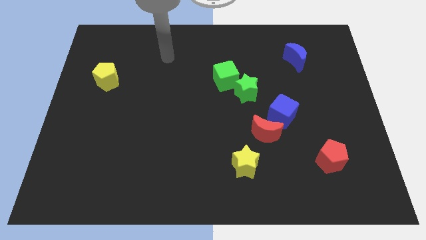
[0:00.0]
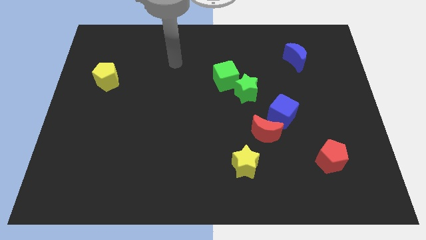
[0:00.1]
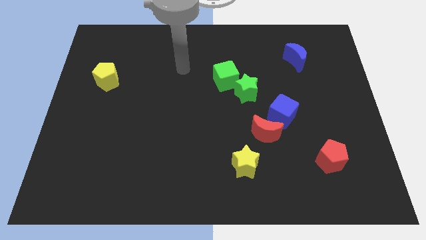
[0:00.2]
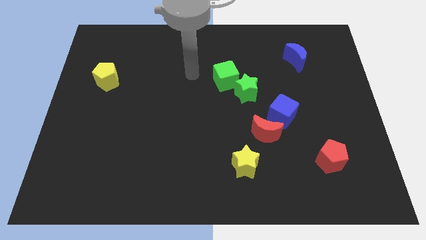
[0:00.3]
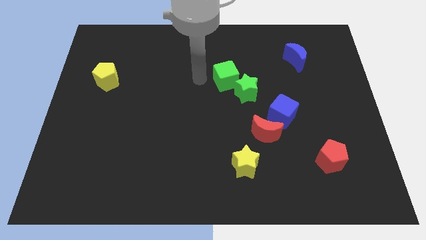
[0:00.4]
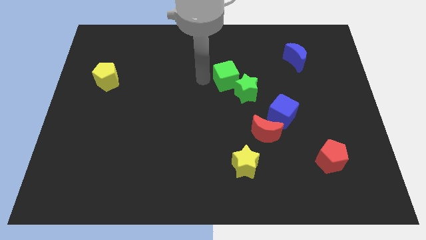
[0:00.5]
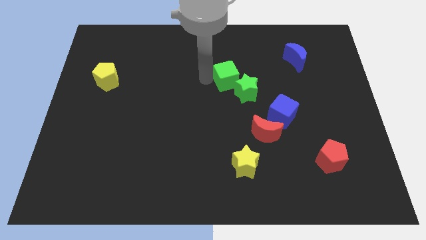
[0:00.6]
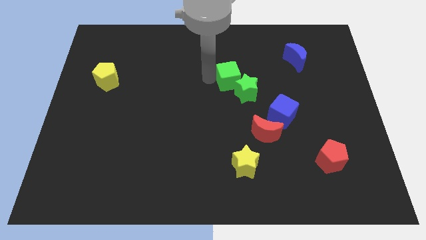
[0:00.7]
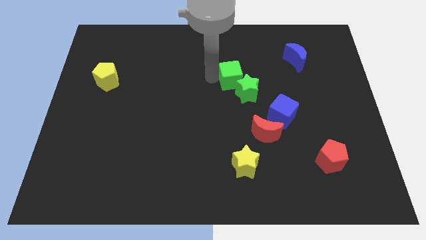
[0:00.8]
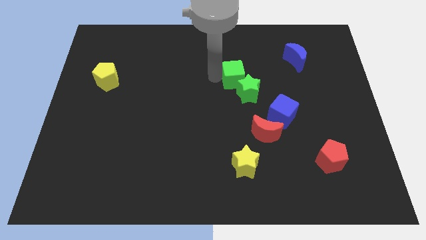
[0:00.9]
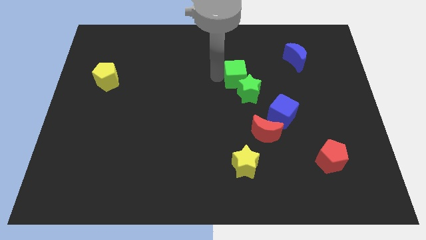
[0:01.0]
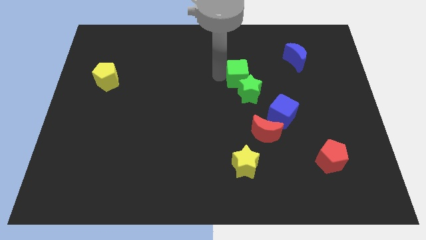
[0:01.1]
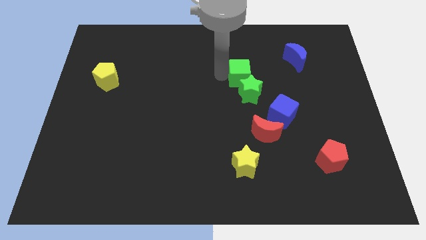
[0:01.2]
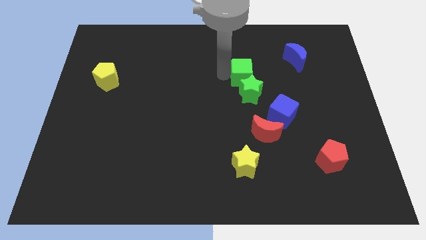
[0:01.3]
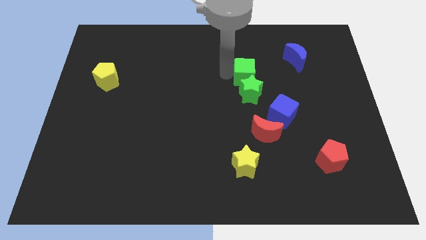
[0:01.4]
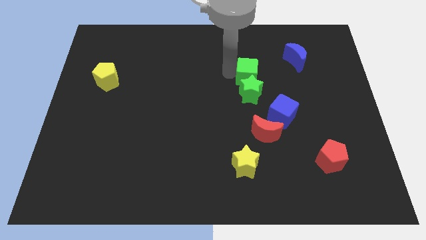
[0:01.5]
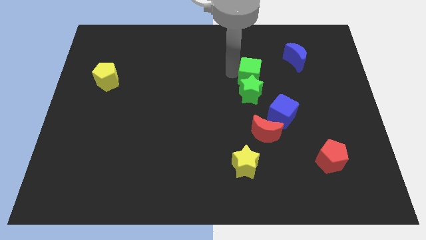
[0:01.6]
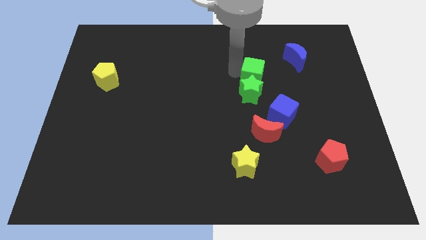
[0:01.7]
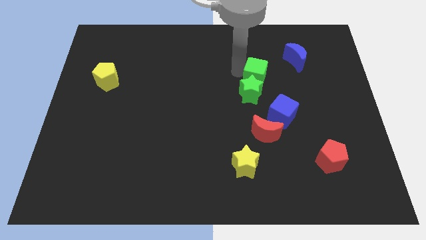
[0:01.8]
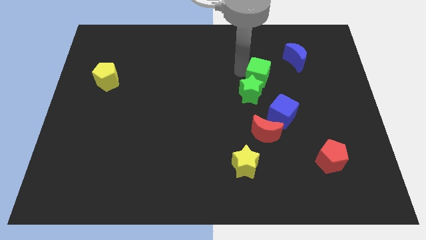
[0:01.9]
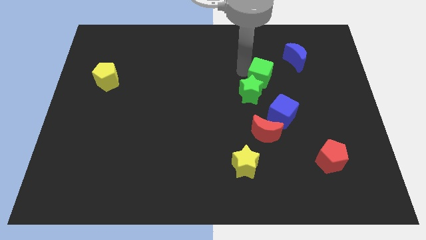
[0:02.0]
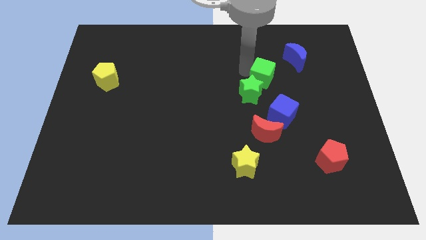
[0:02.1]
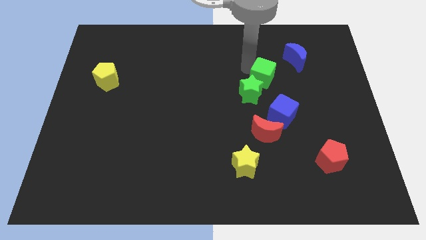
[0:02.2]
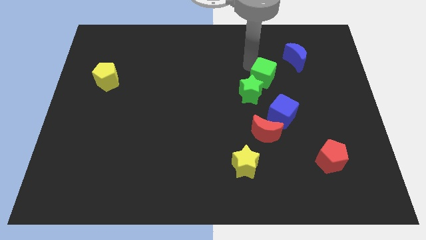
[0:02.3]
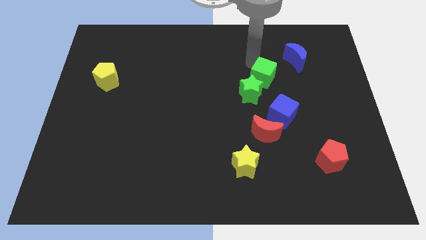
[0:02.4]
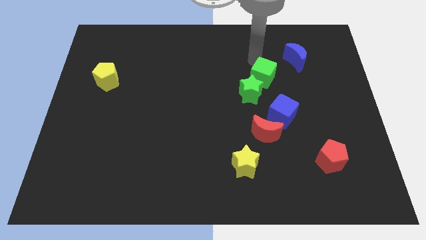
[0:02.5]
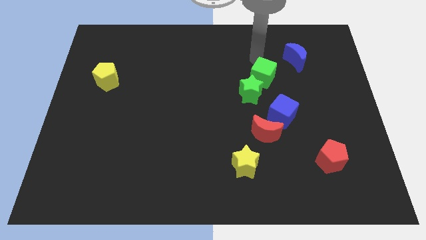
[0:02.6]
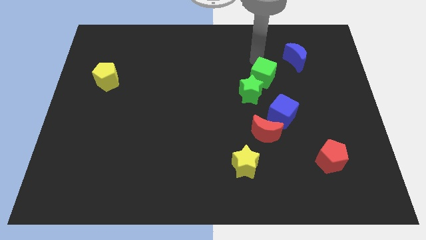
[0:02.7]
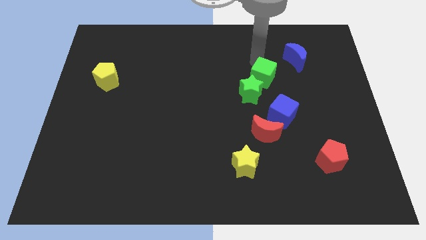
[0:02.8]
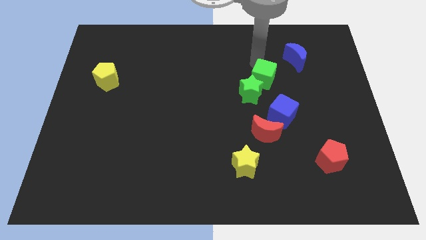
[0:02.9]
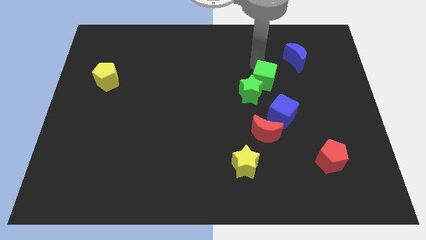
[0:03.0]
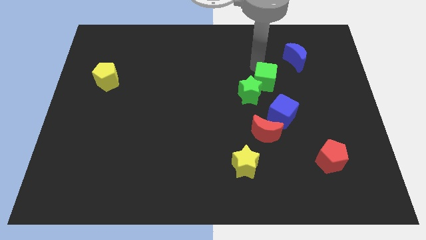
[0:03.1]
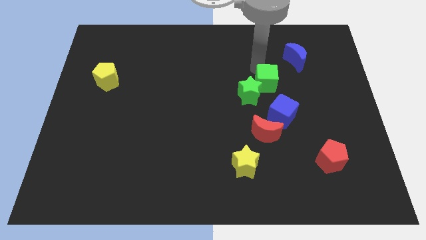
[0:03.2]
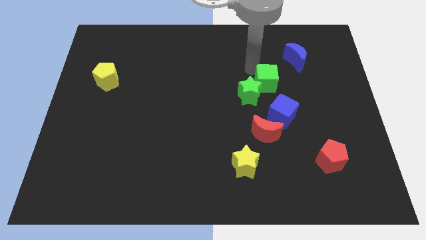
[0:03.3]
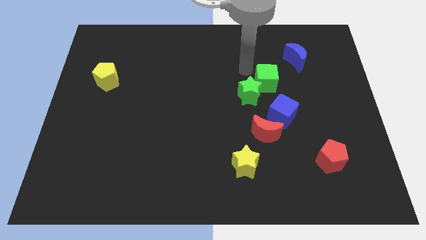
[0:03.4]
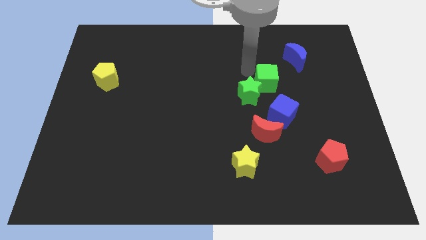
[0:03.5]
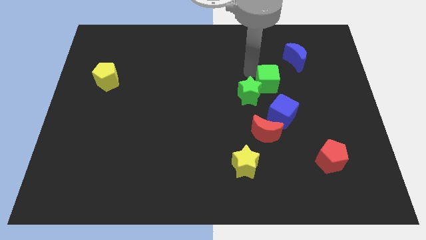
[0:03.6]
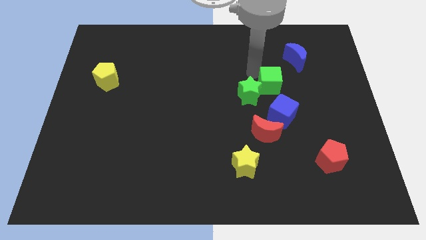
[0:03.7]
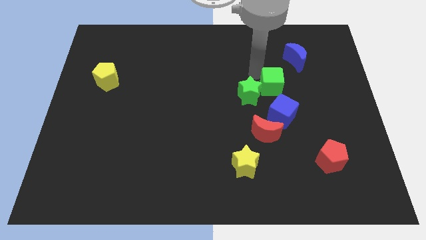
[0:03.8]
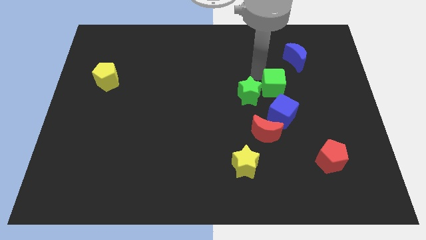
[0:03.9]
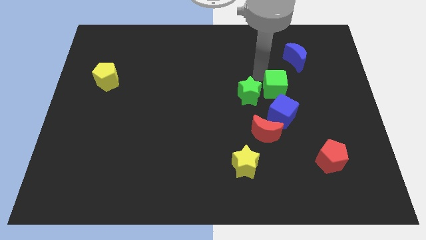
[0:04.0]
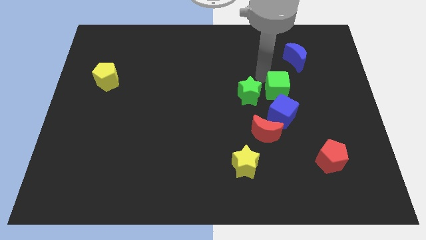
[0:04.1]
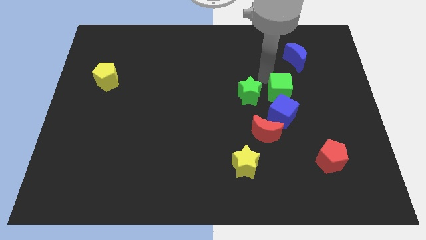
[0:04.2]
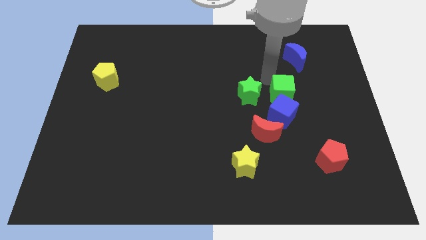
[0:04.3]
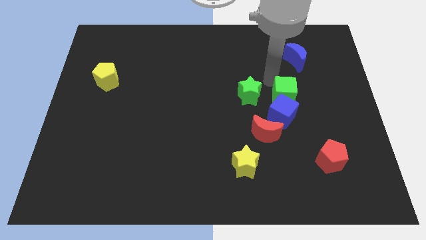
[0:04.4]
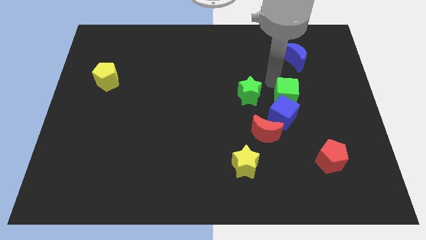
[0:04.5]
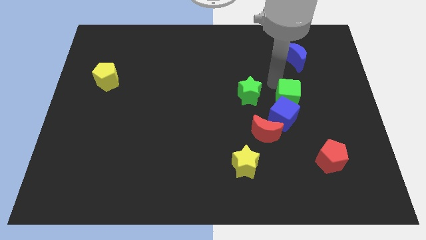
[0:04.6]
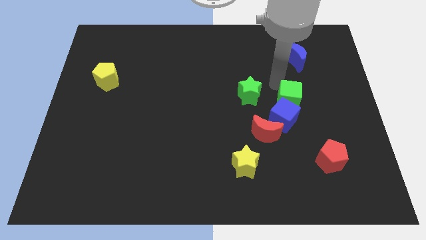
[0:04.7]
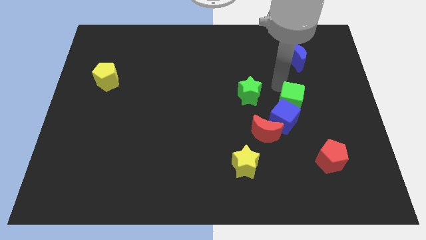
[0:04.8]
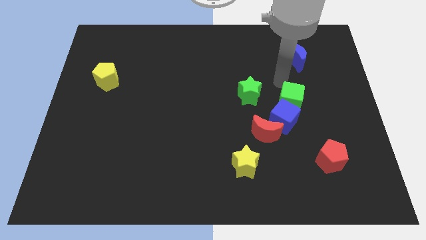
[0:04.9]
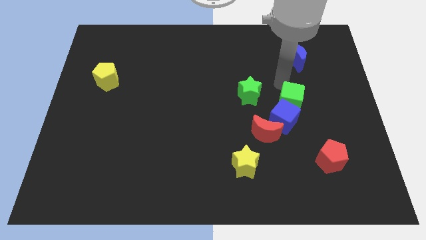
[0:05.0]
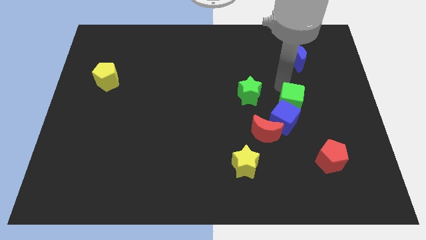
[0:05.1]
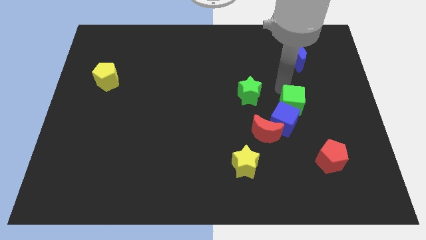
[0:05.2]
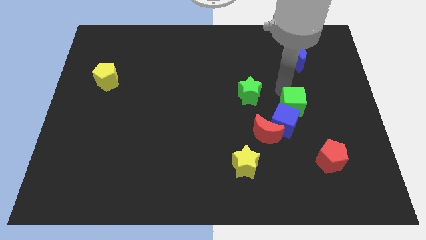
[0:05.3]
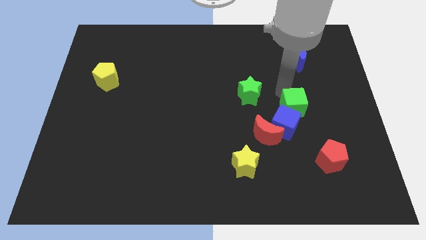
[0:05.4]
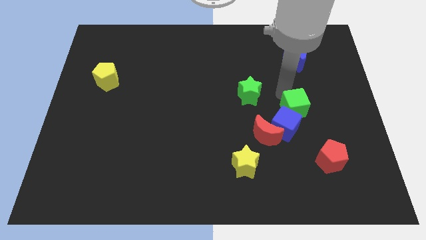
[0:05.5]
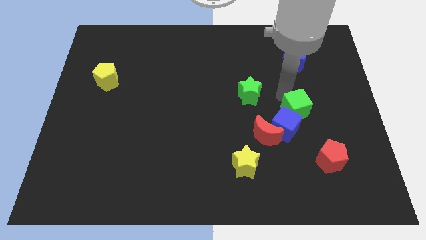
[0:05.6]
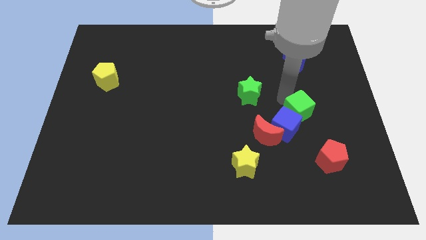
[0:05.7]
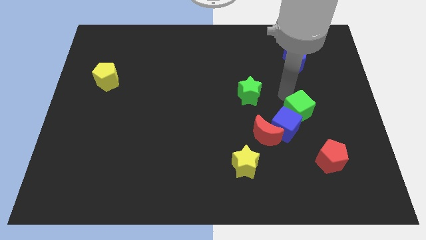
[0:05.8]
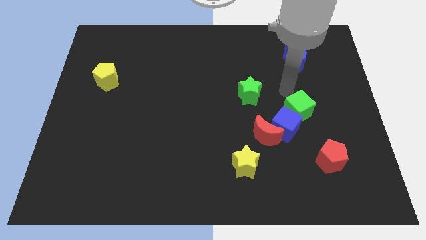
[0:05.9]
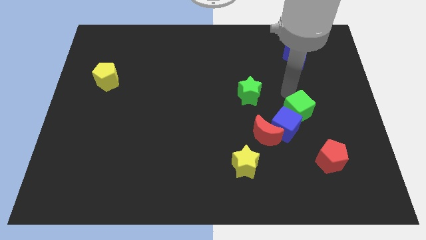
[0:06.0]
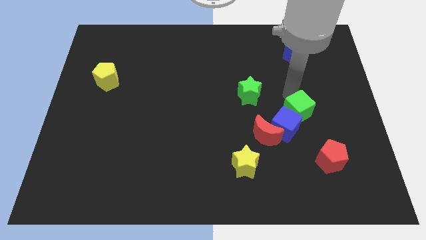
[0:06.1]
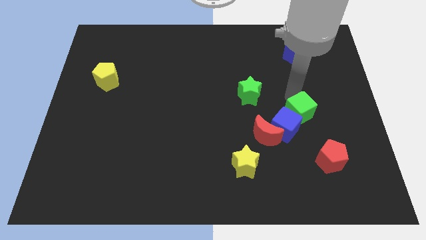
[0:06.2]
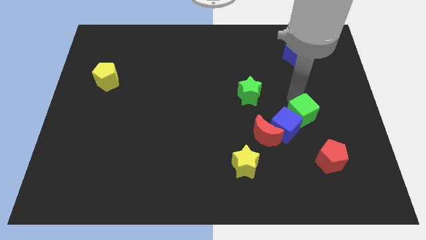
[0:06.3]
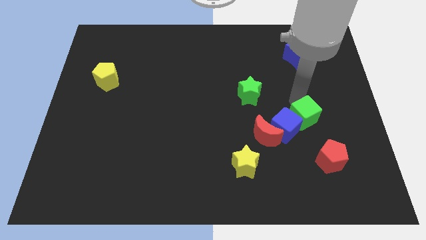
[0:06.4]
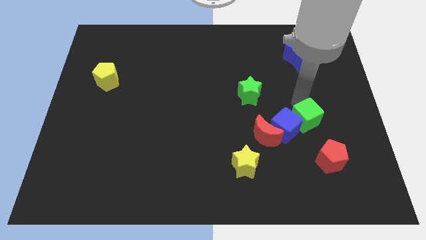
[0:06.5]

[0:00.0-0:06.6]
move the green cube to the right side of the red moon
